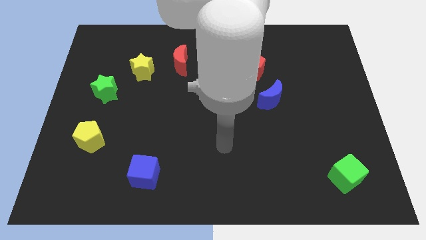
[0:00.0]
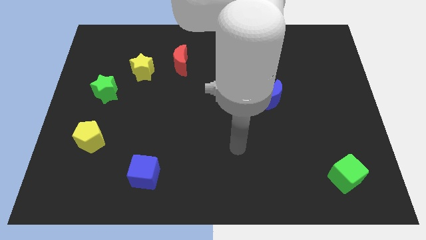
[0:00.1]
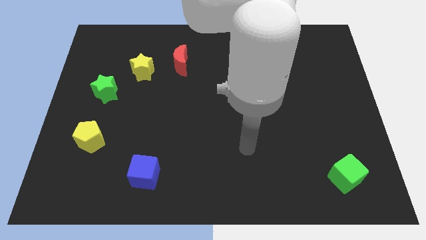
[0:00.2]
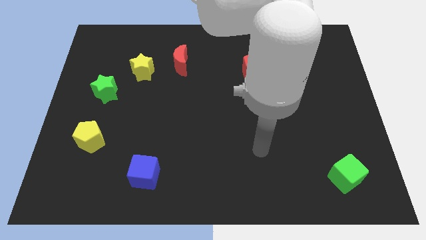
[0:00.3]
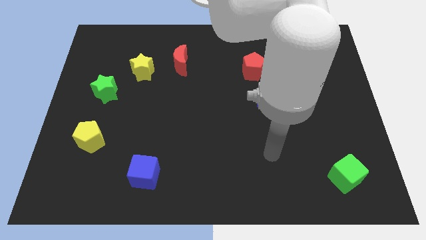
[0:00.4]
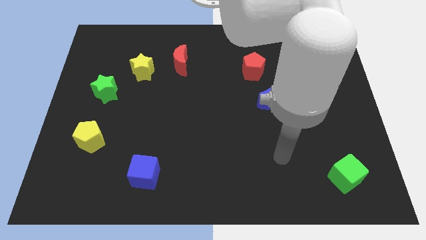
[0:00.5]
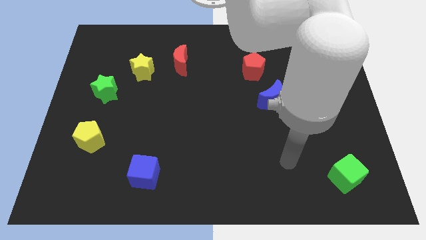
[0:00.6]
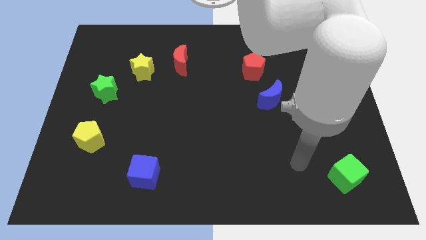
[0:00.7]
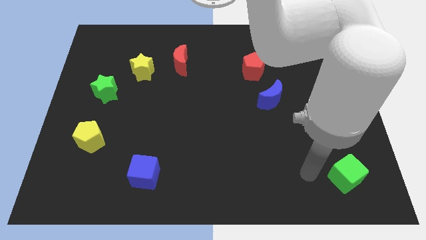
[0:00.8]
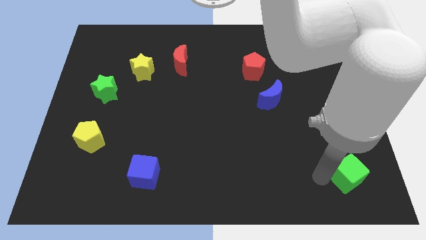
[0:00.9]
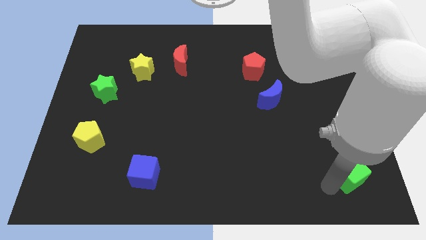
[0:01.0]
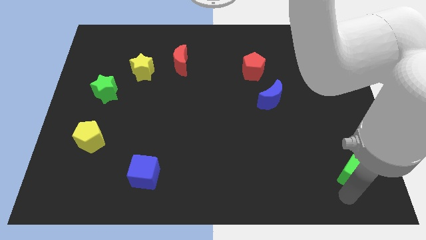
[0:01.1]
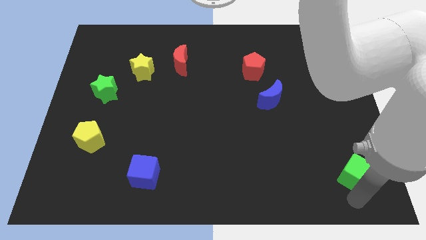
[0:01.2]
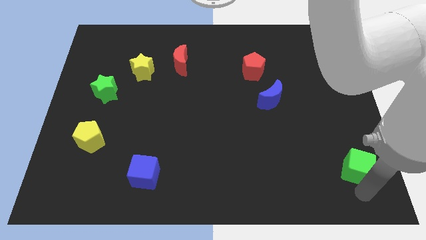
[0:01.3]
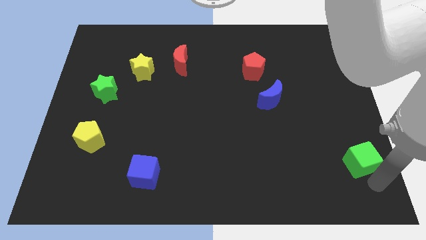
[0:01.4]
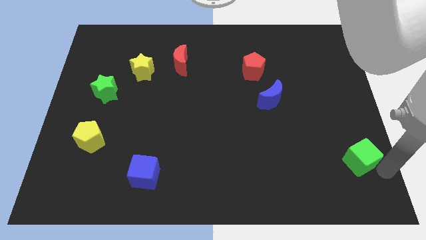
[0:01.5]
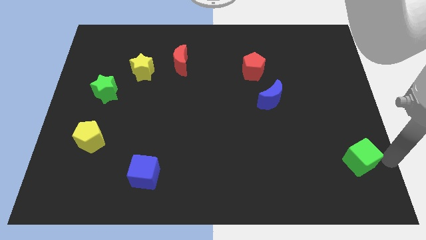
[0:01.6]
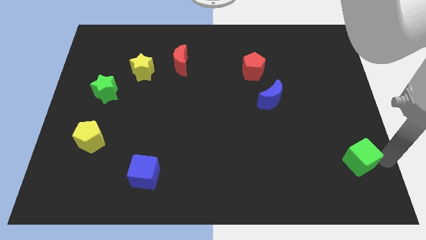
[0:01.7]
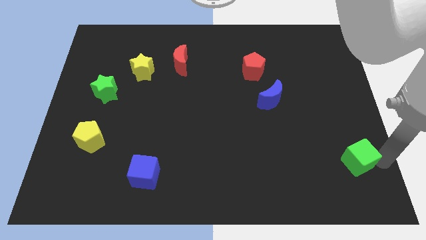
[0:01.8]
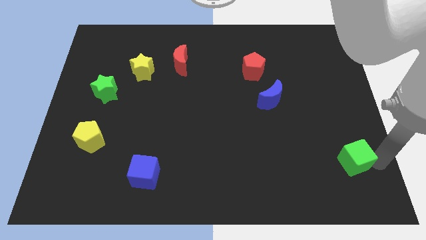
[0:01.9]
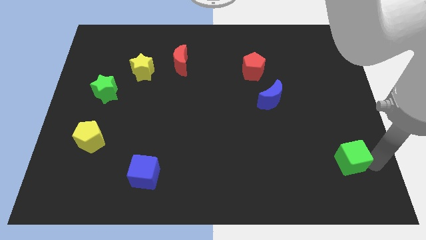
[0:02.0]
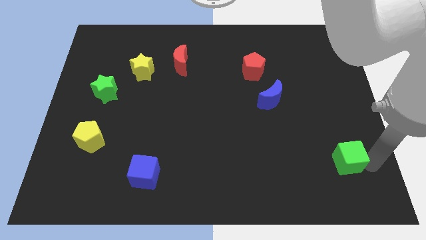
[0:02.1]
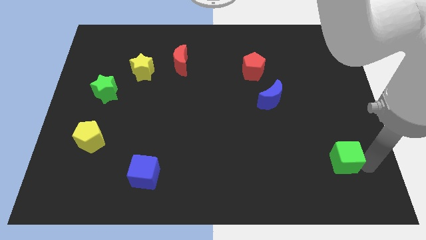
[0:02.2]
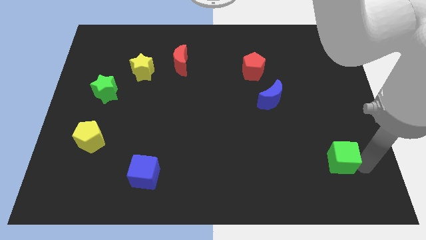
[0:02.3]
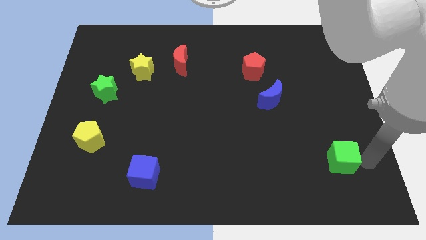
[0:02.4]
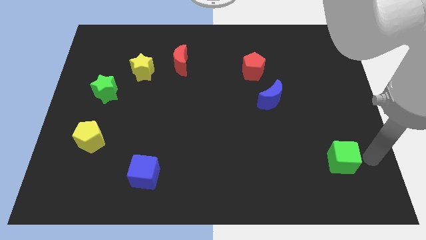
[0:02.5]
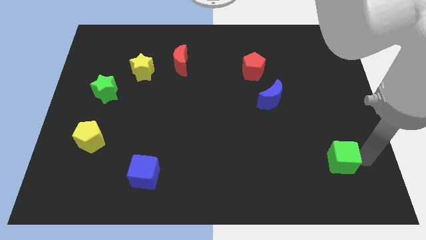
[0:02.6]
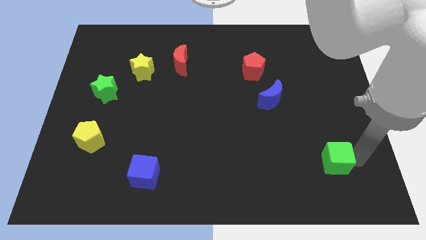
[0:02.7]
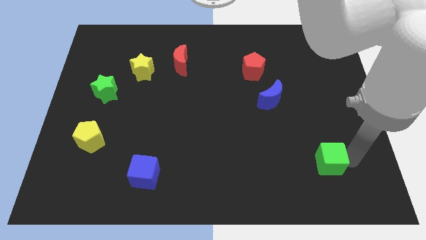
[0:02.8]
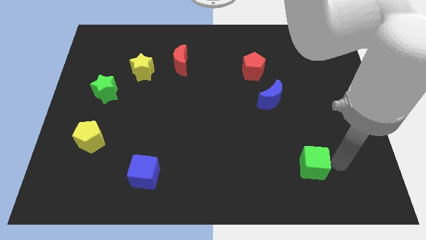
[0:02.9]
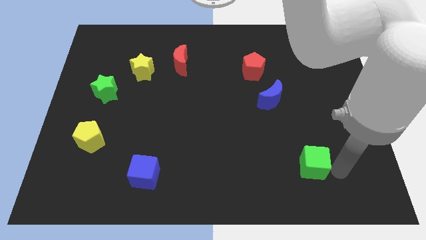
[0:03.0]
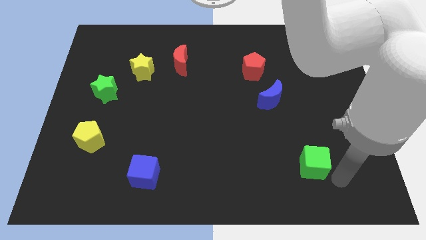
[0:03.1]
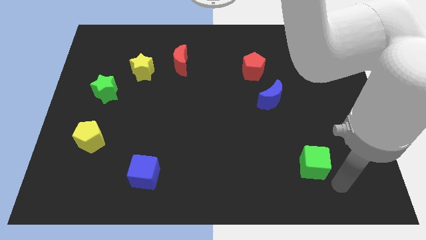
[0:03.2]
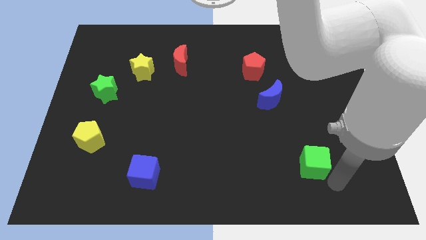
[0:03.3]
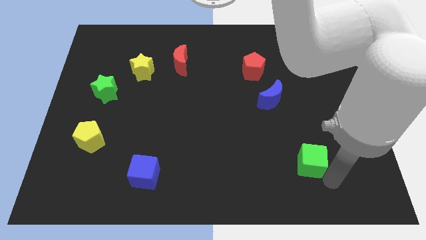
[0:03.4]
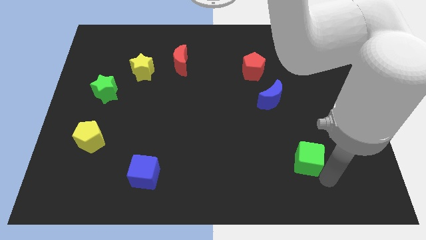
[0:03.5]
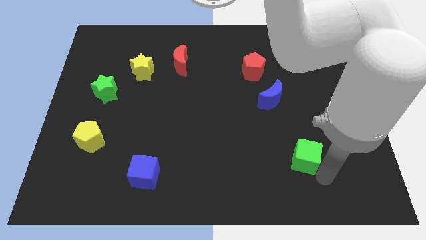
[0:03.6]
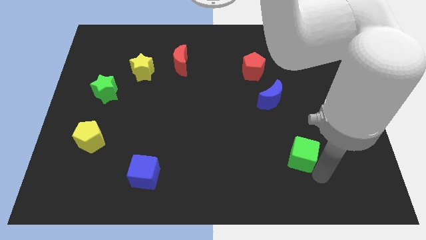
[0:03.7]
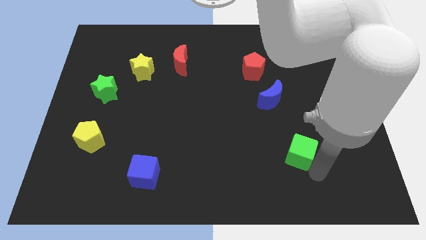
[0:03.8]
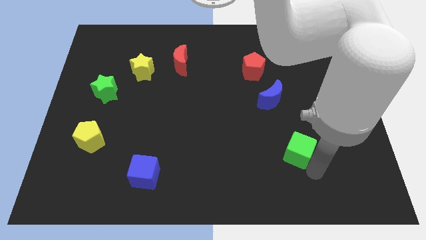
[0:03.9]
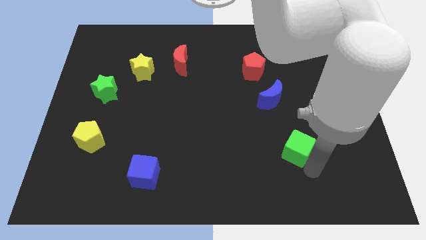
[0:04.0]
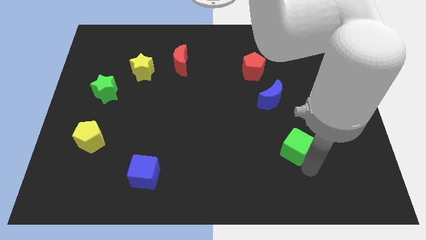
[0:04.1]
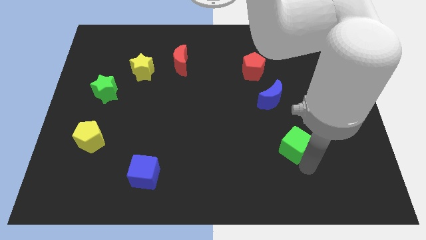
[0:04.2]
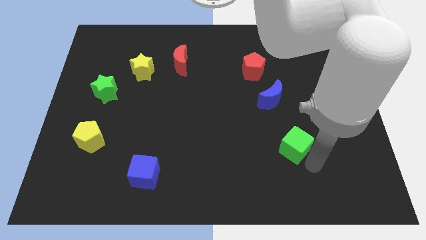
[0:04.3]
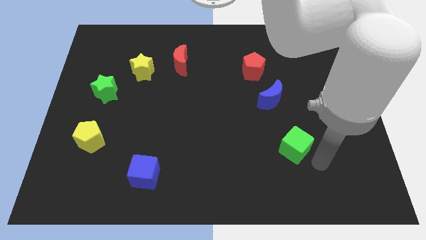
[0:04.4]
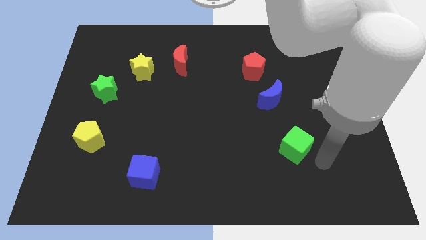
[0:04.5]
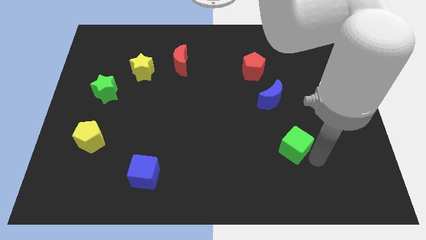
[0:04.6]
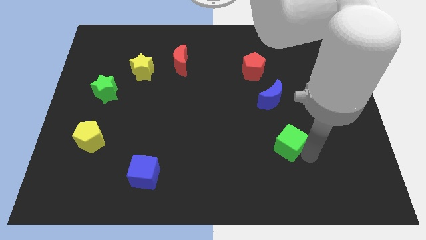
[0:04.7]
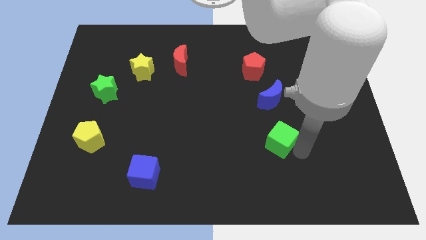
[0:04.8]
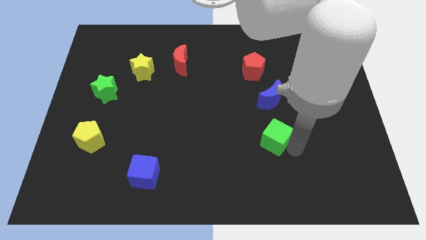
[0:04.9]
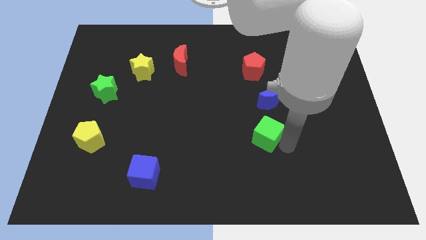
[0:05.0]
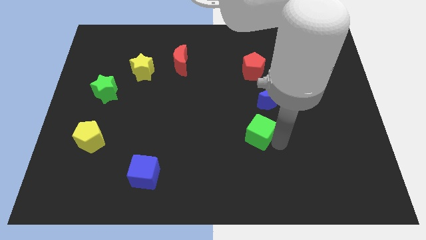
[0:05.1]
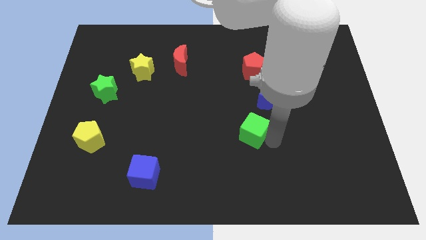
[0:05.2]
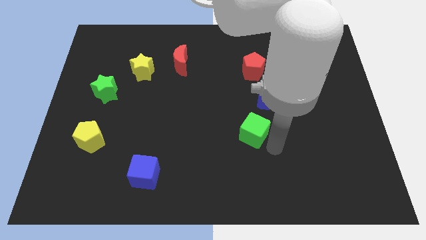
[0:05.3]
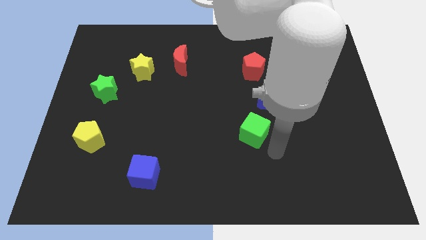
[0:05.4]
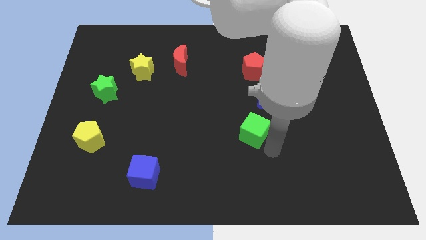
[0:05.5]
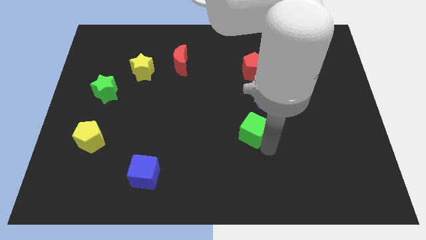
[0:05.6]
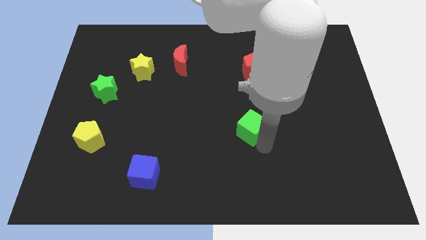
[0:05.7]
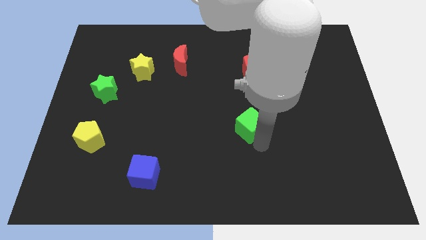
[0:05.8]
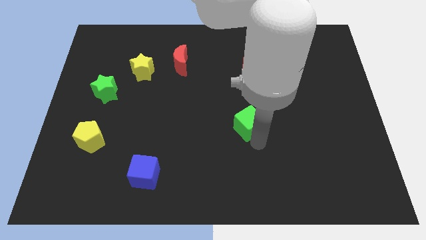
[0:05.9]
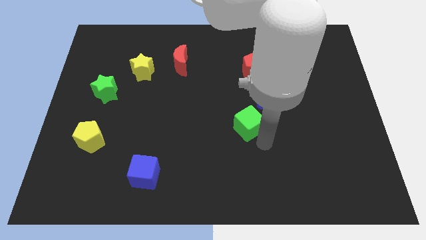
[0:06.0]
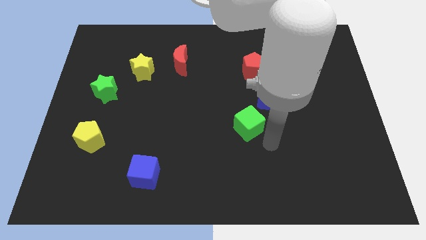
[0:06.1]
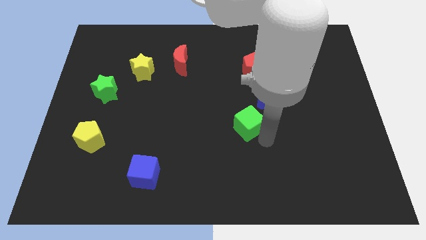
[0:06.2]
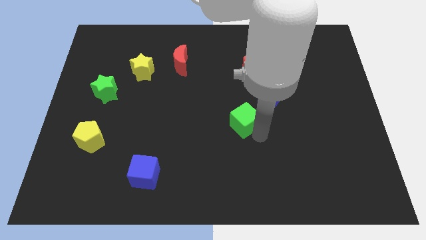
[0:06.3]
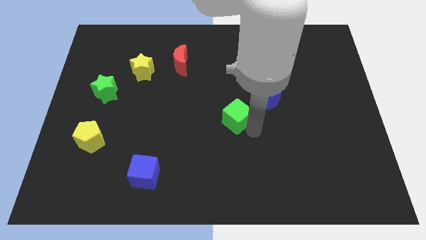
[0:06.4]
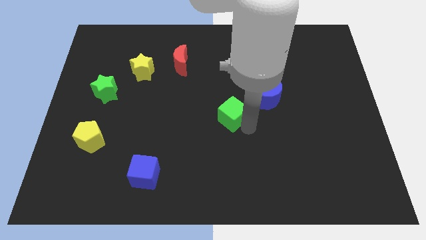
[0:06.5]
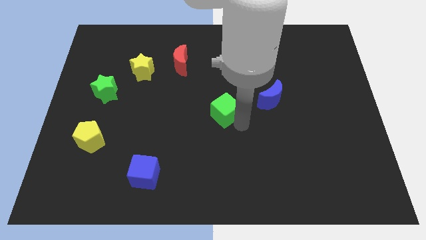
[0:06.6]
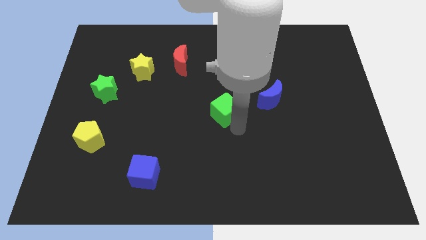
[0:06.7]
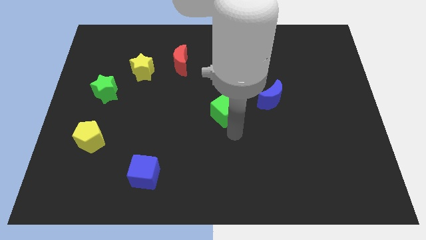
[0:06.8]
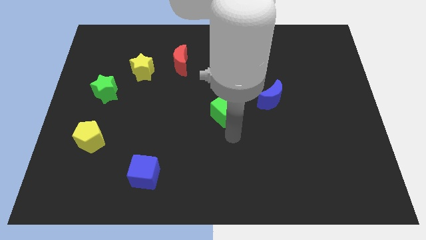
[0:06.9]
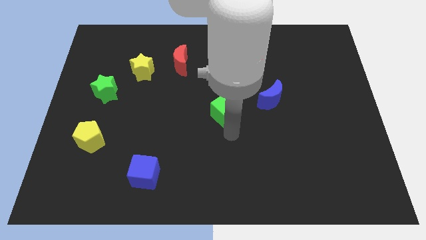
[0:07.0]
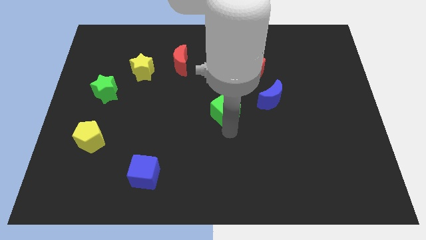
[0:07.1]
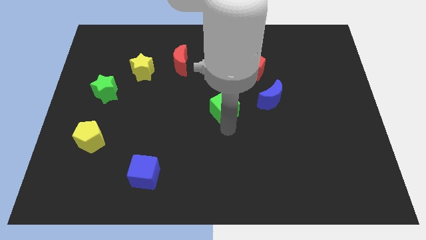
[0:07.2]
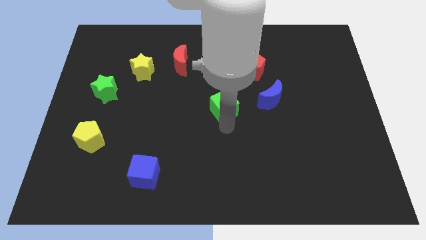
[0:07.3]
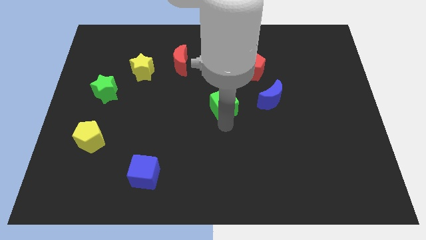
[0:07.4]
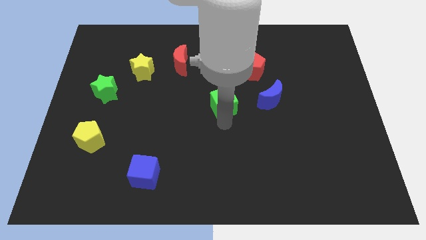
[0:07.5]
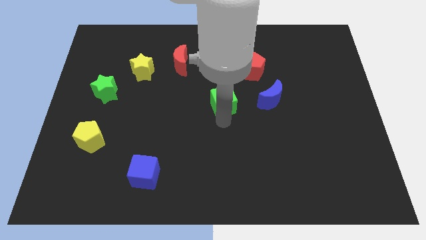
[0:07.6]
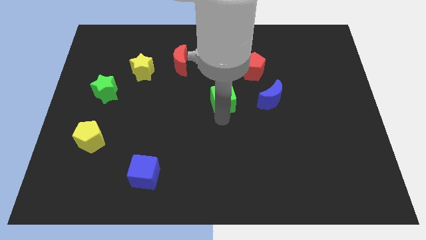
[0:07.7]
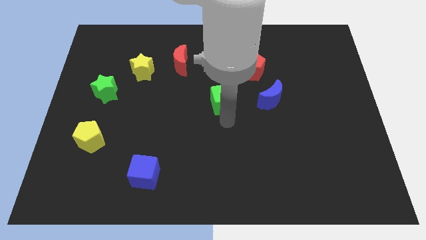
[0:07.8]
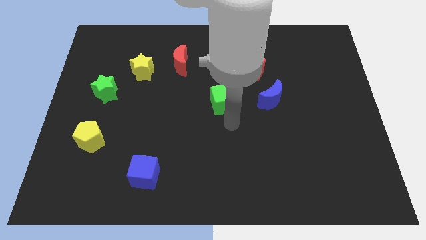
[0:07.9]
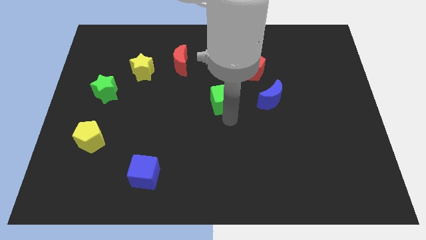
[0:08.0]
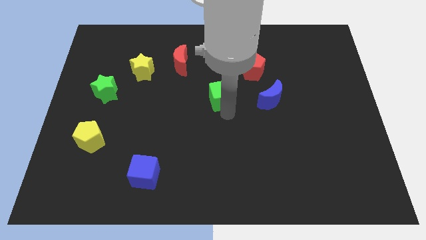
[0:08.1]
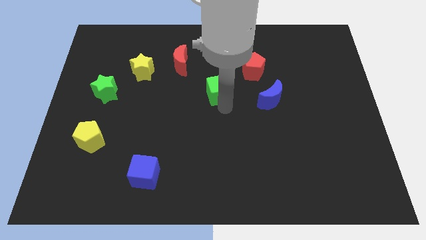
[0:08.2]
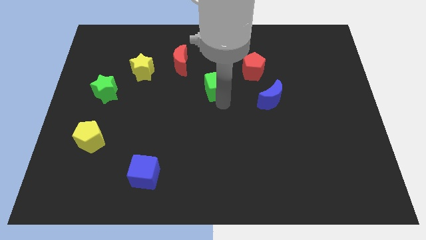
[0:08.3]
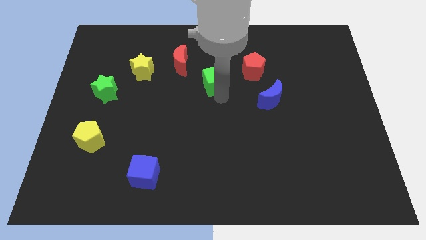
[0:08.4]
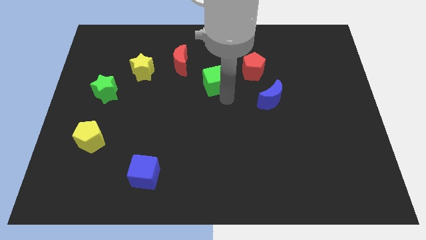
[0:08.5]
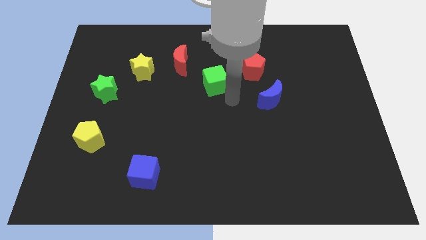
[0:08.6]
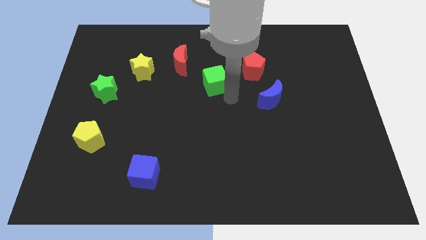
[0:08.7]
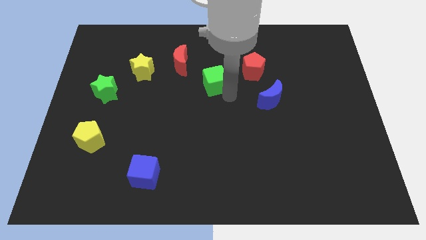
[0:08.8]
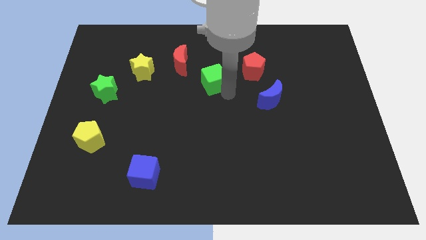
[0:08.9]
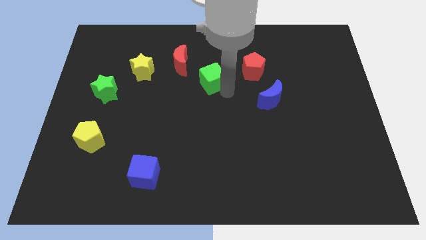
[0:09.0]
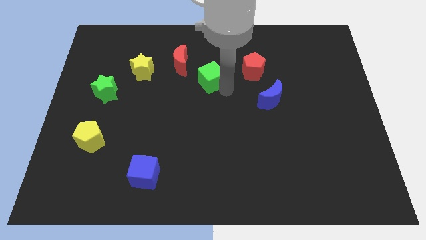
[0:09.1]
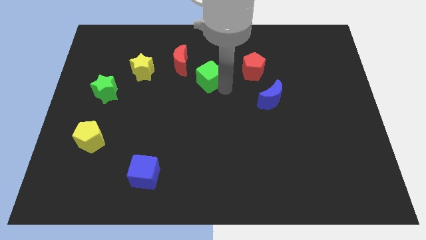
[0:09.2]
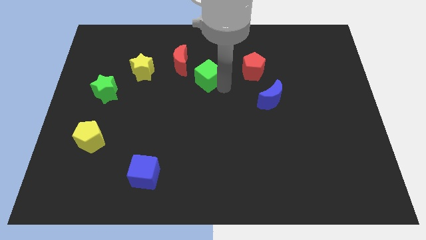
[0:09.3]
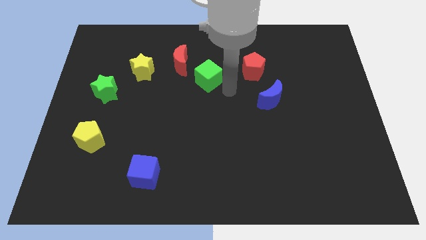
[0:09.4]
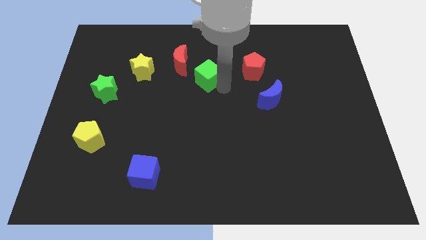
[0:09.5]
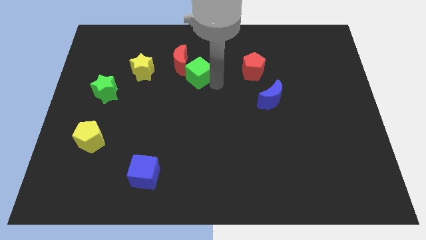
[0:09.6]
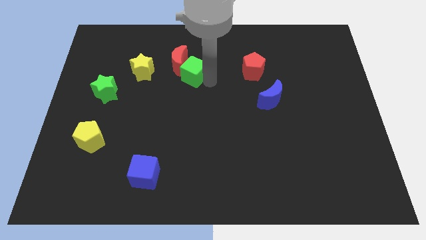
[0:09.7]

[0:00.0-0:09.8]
slide the green cube towards the red moon
